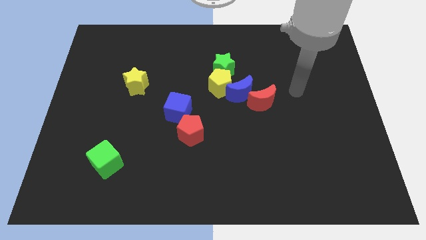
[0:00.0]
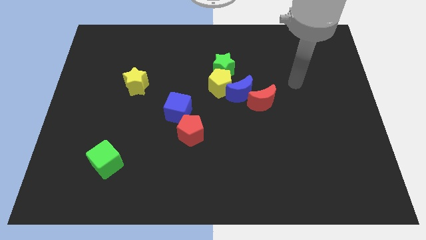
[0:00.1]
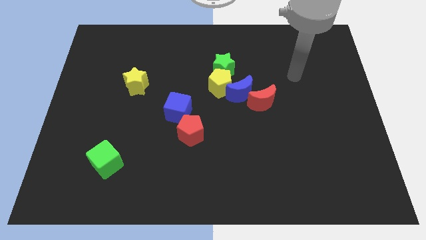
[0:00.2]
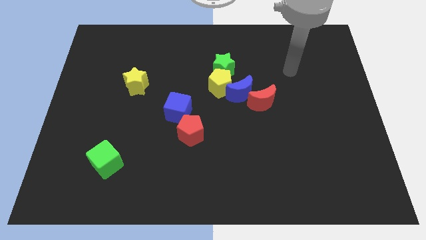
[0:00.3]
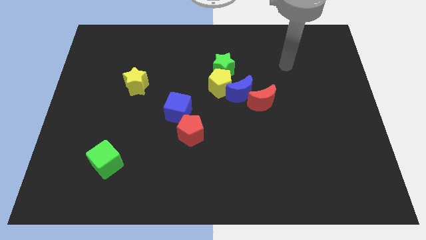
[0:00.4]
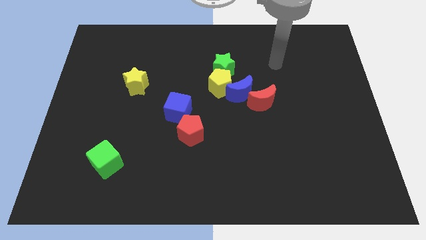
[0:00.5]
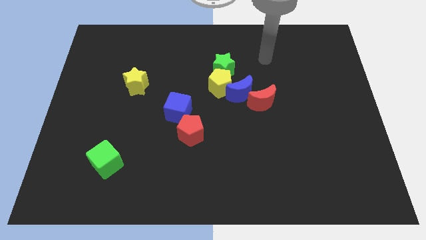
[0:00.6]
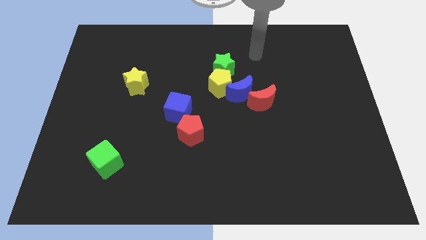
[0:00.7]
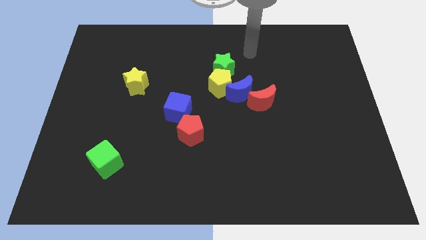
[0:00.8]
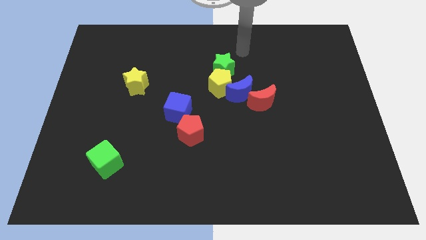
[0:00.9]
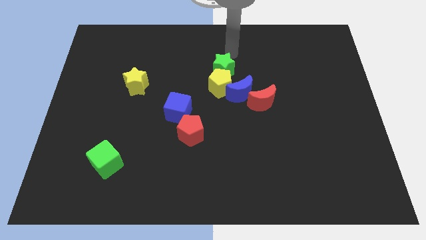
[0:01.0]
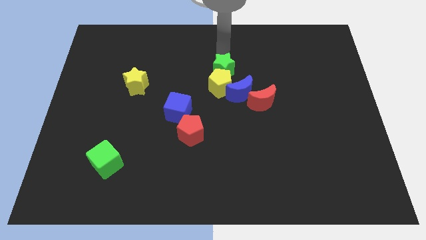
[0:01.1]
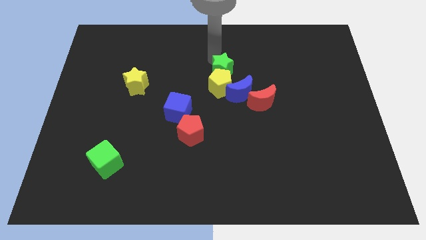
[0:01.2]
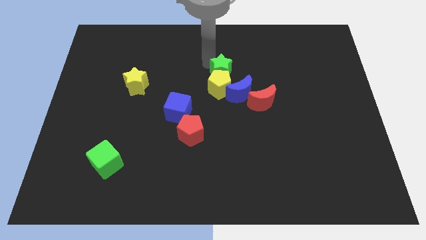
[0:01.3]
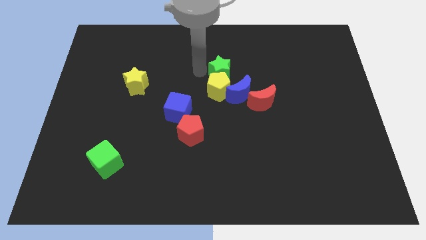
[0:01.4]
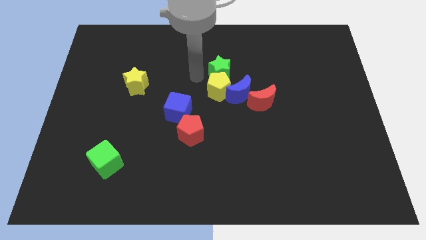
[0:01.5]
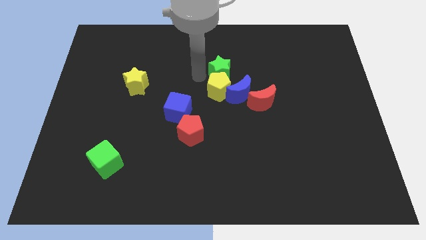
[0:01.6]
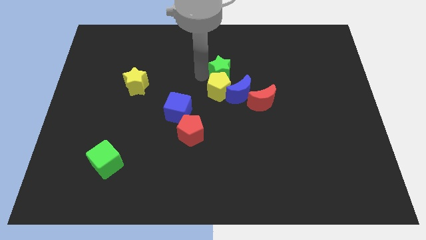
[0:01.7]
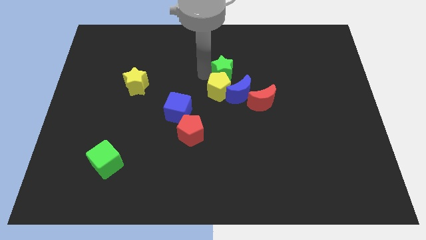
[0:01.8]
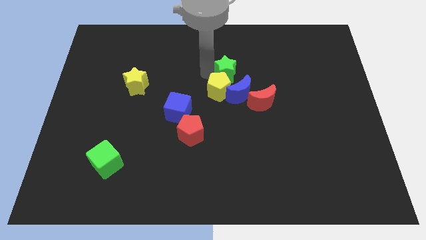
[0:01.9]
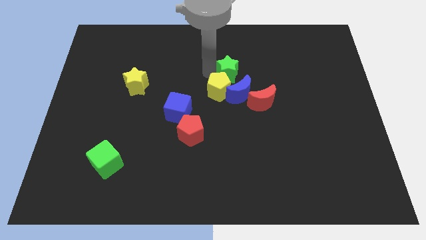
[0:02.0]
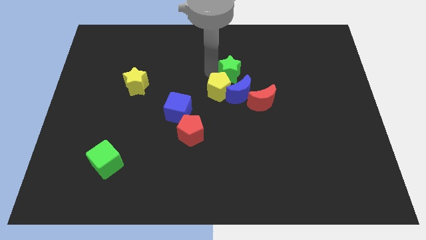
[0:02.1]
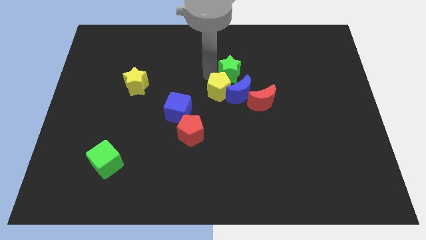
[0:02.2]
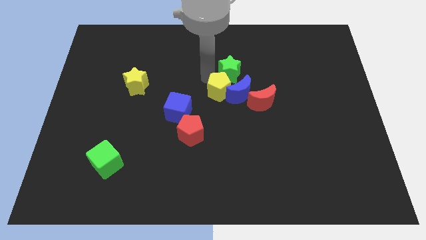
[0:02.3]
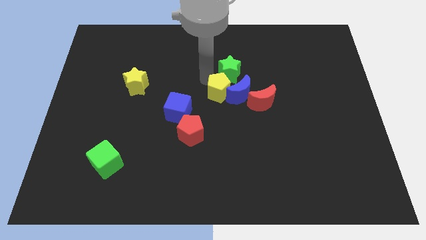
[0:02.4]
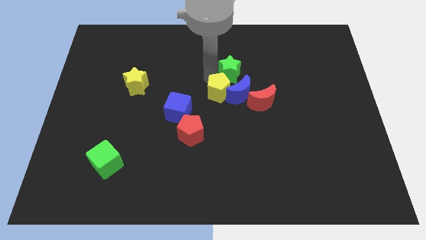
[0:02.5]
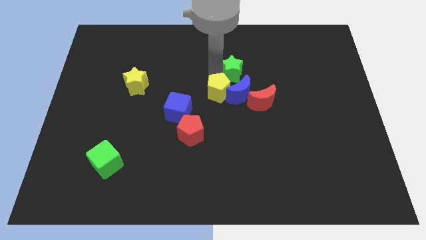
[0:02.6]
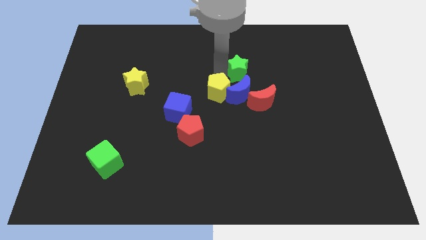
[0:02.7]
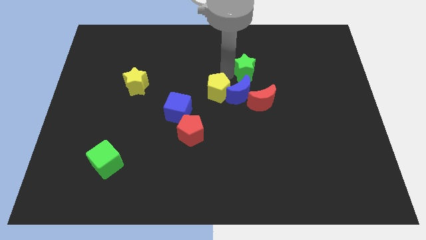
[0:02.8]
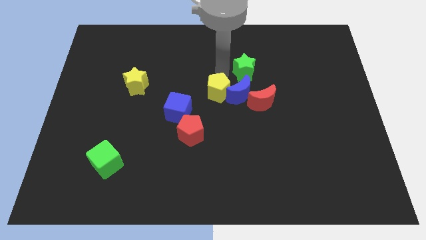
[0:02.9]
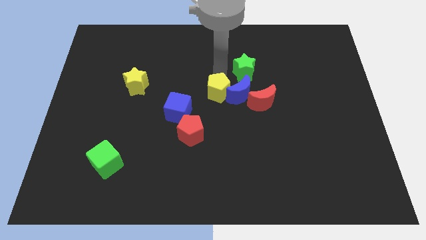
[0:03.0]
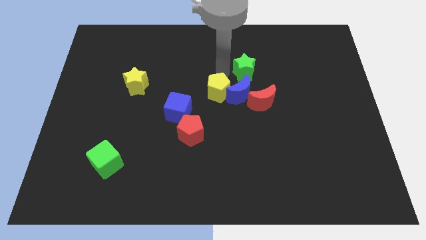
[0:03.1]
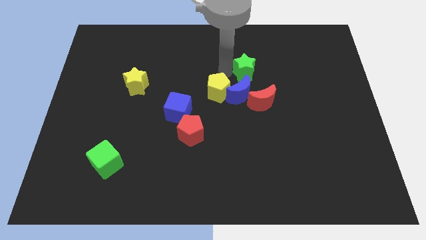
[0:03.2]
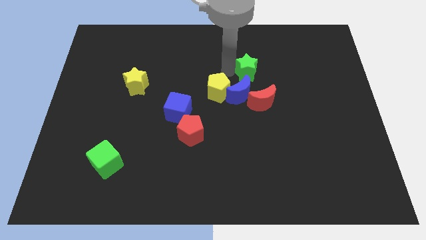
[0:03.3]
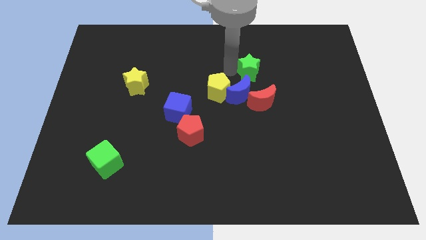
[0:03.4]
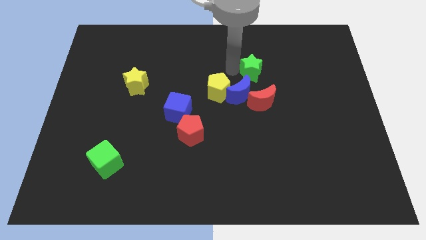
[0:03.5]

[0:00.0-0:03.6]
slightly push the green star to the right

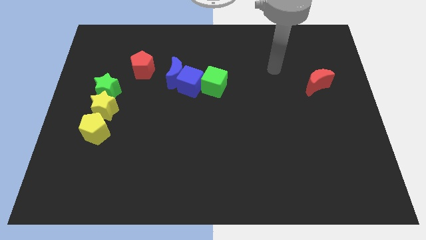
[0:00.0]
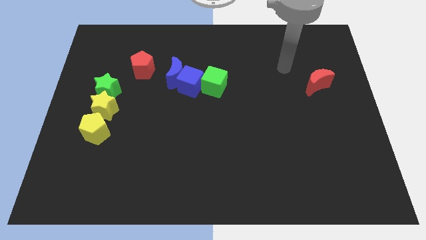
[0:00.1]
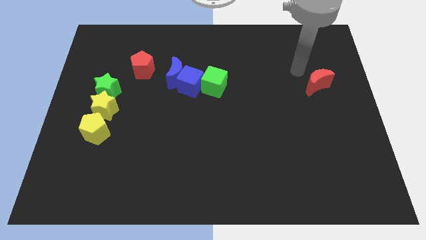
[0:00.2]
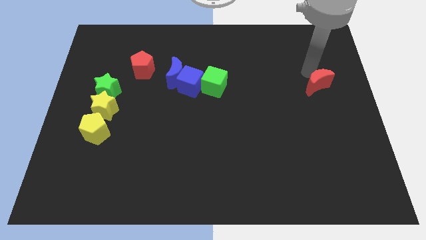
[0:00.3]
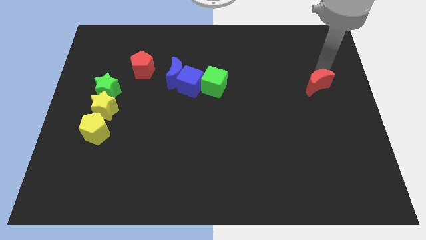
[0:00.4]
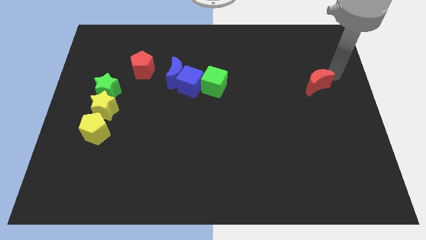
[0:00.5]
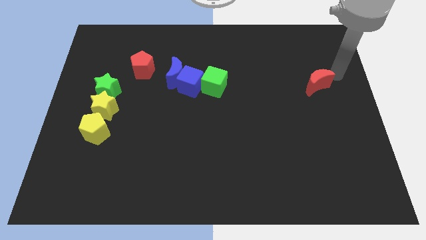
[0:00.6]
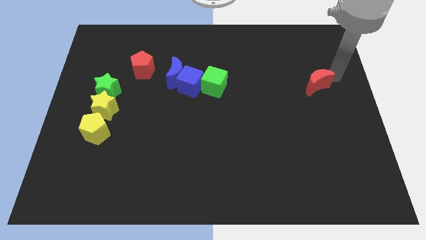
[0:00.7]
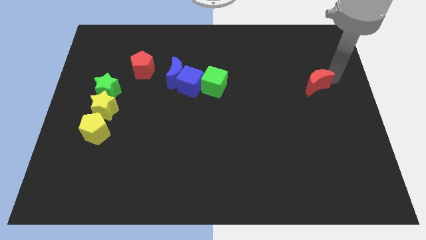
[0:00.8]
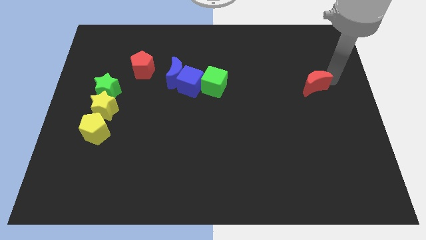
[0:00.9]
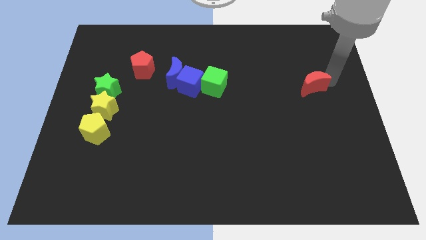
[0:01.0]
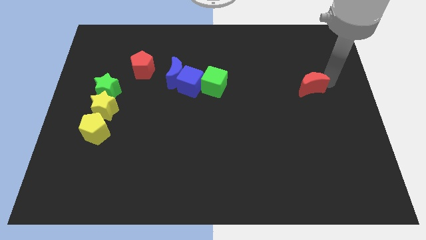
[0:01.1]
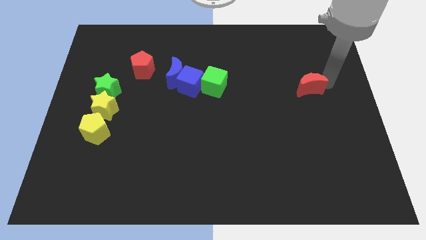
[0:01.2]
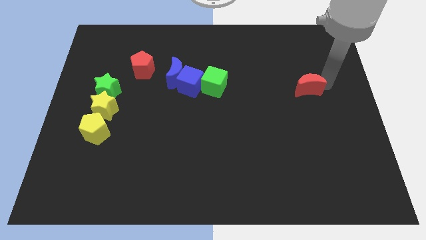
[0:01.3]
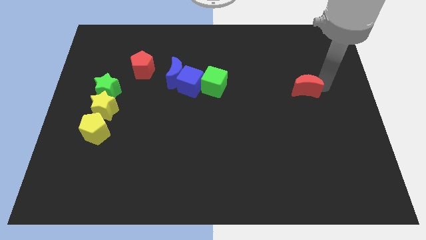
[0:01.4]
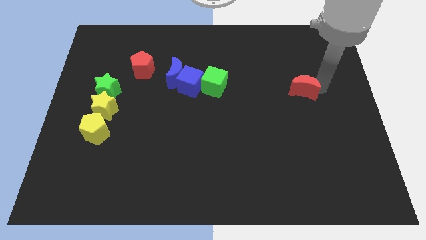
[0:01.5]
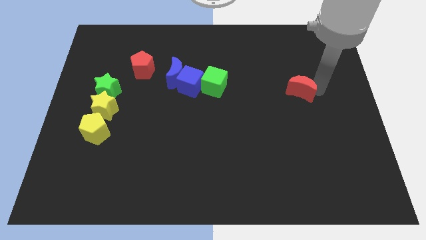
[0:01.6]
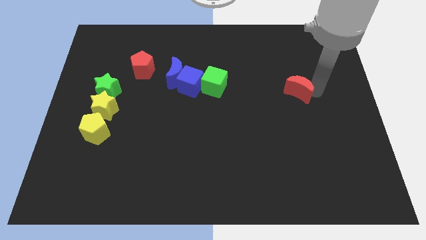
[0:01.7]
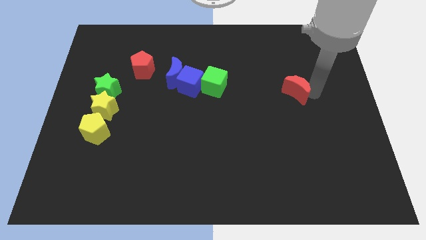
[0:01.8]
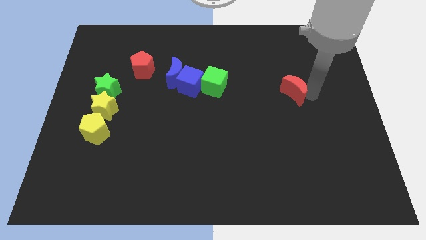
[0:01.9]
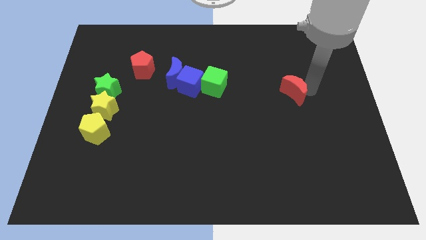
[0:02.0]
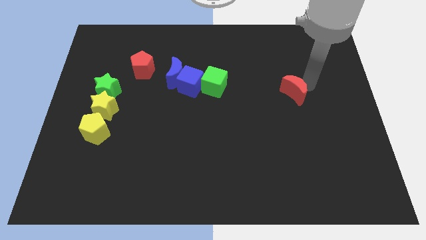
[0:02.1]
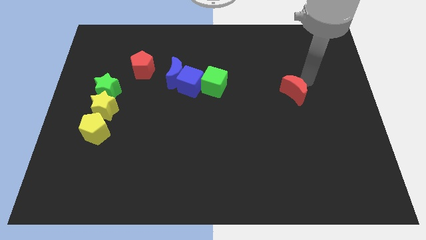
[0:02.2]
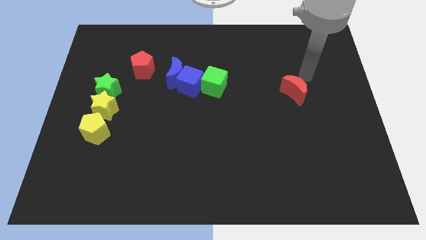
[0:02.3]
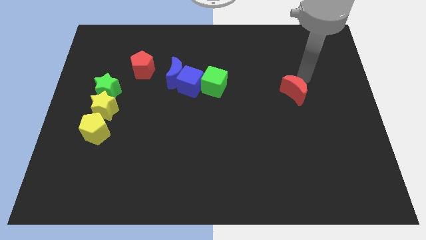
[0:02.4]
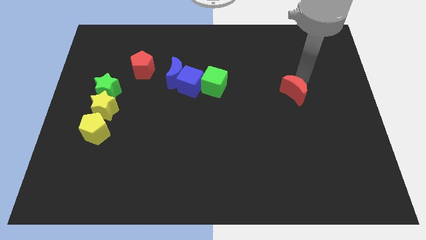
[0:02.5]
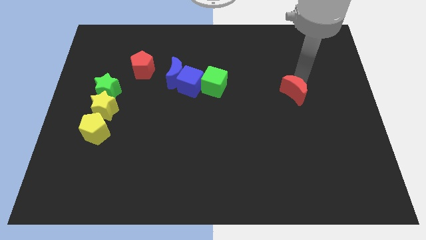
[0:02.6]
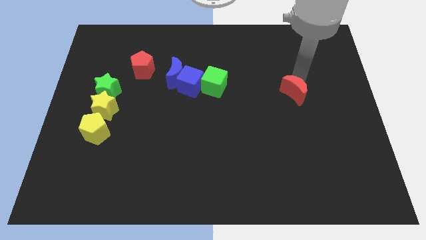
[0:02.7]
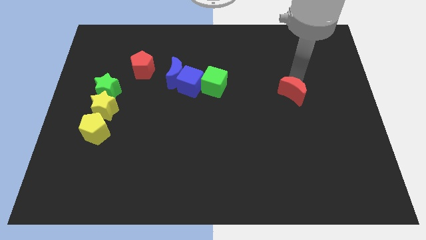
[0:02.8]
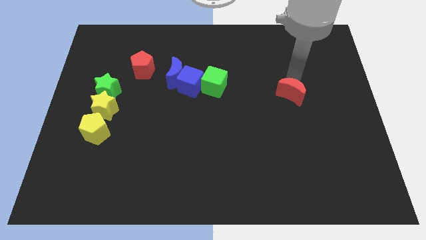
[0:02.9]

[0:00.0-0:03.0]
slide the red moon a little down and then left

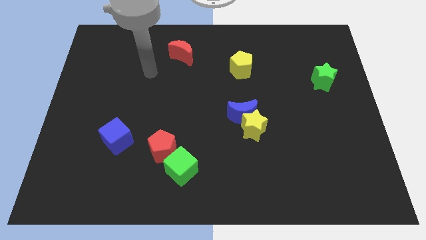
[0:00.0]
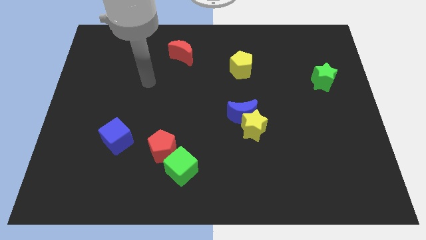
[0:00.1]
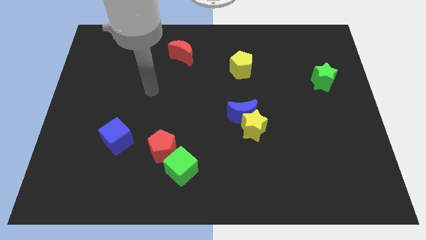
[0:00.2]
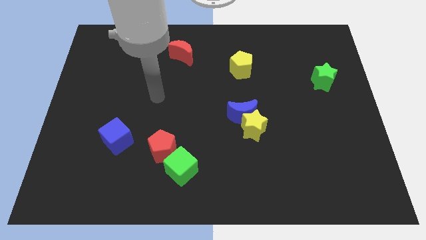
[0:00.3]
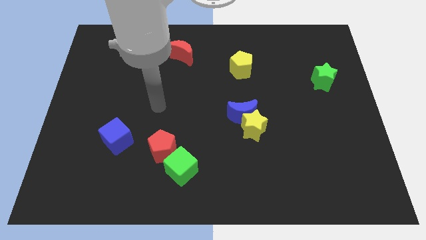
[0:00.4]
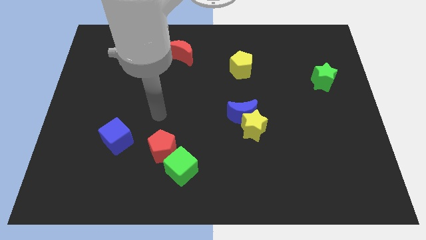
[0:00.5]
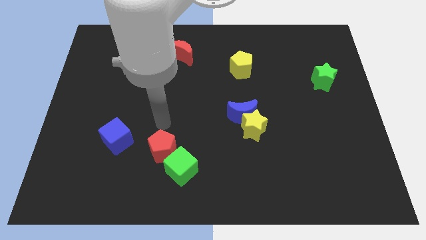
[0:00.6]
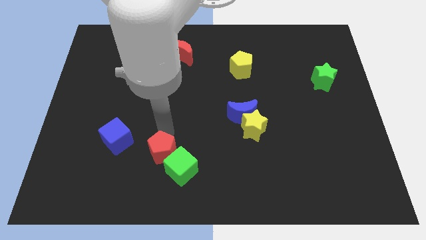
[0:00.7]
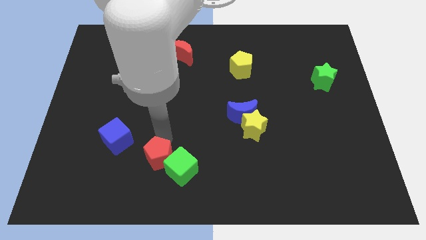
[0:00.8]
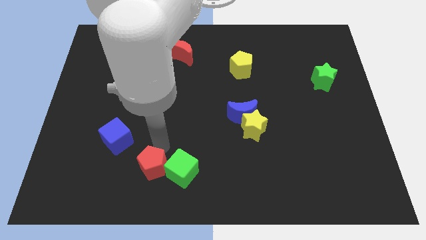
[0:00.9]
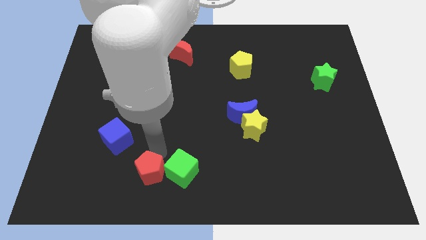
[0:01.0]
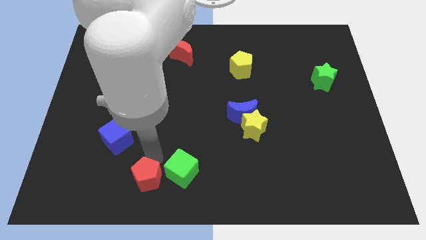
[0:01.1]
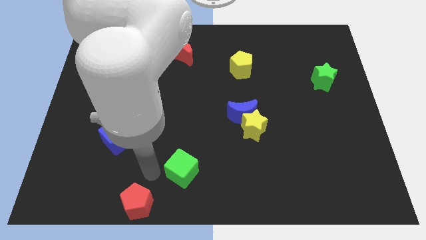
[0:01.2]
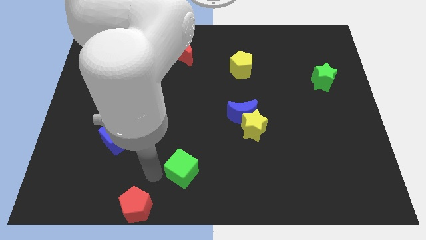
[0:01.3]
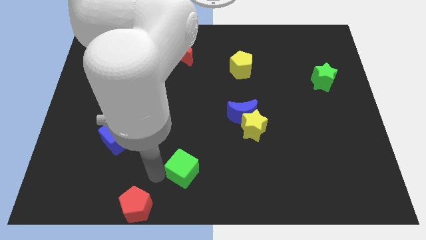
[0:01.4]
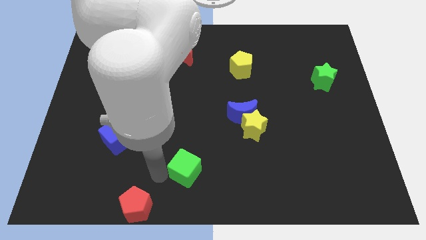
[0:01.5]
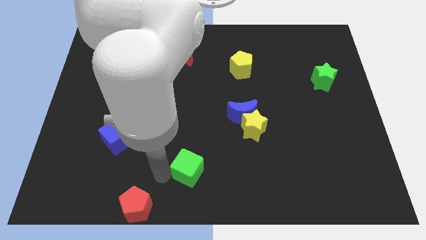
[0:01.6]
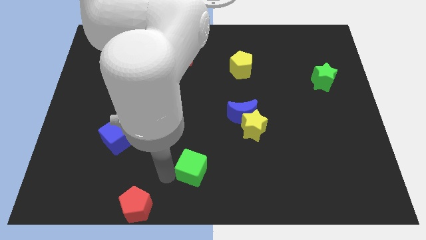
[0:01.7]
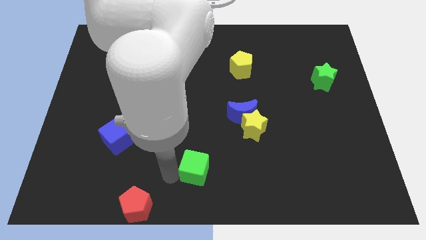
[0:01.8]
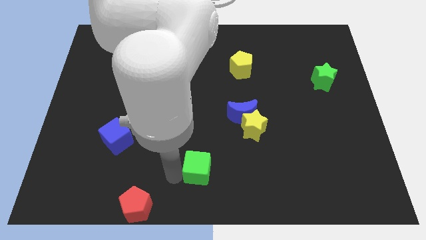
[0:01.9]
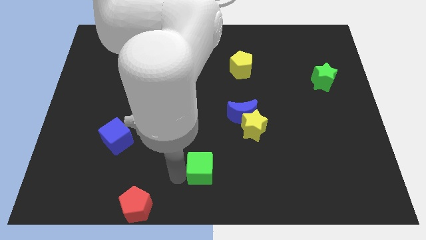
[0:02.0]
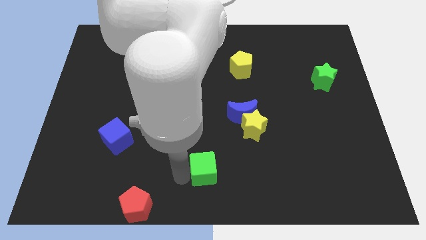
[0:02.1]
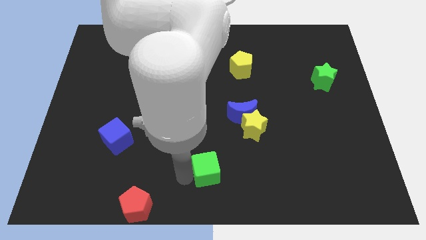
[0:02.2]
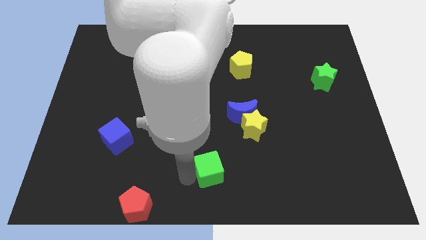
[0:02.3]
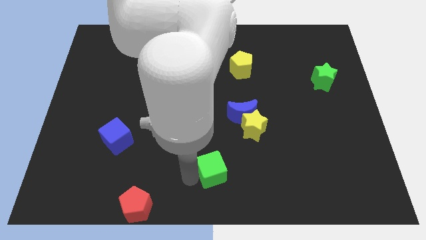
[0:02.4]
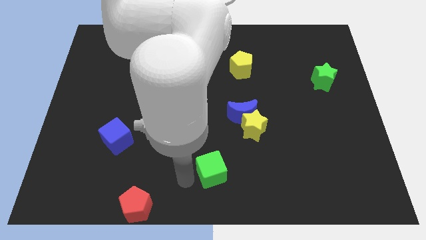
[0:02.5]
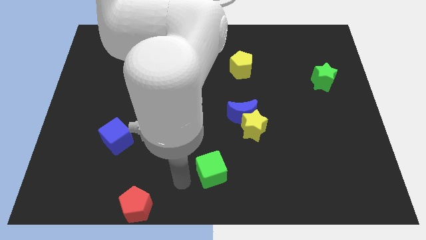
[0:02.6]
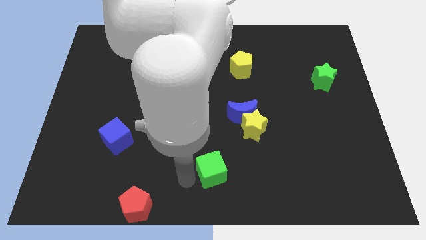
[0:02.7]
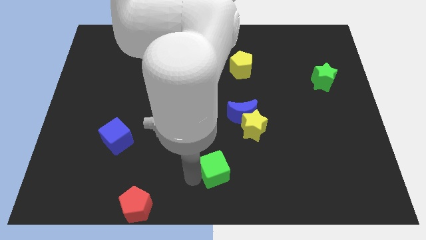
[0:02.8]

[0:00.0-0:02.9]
move the green cube right somewhat
